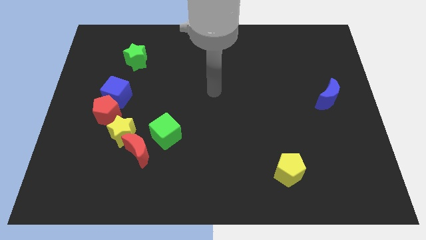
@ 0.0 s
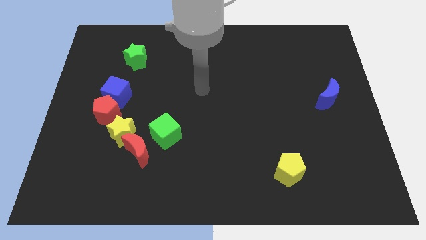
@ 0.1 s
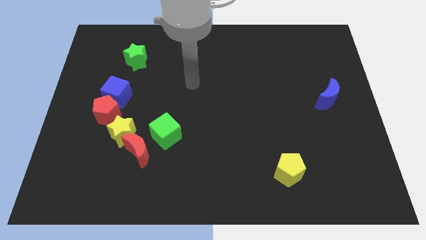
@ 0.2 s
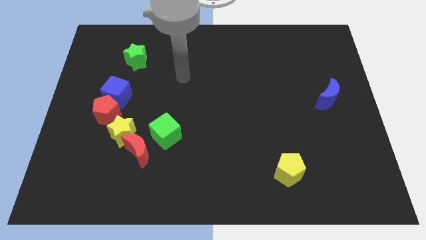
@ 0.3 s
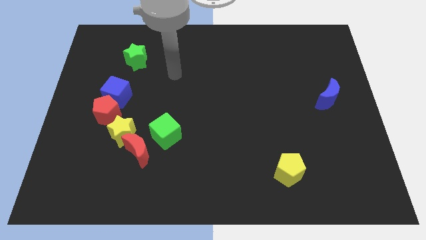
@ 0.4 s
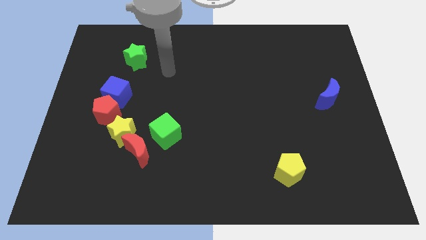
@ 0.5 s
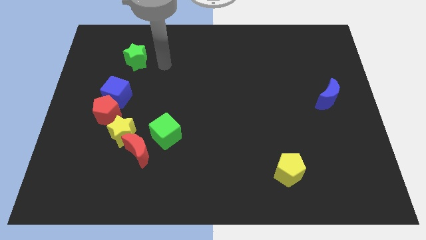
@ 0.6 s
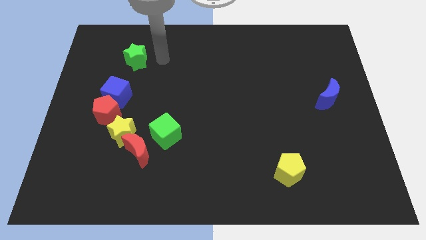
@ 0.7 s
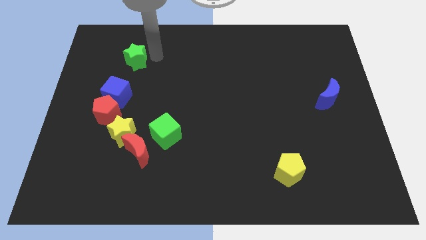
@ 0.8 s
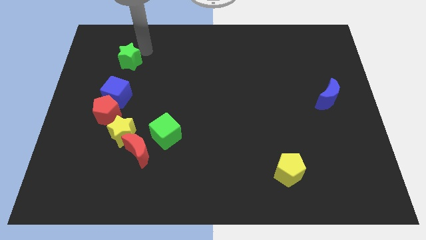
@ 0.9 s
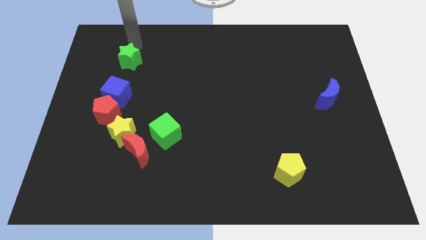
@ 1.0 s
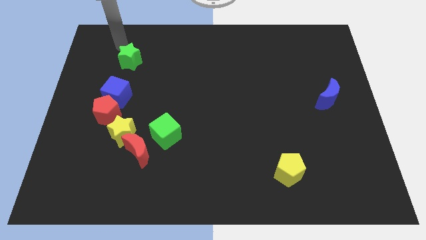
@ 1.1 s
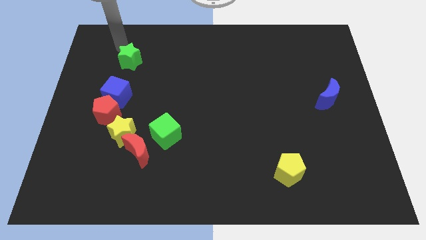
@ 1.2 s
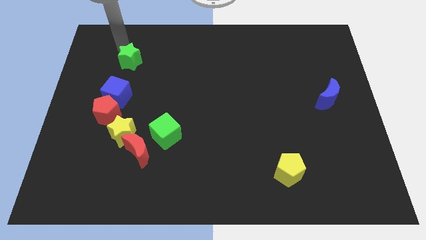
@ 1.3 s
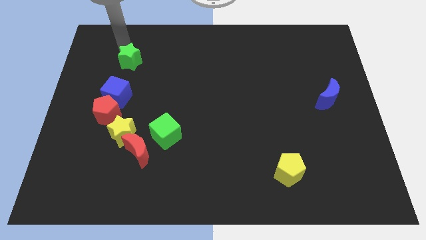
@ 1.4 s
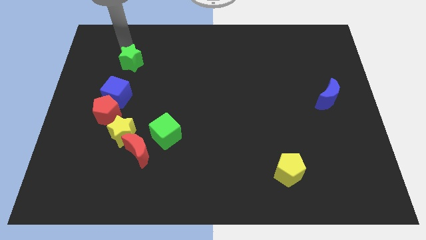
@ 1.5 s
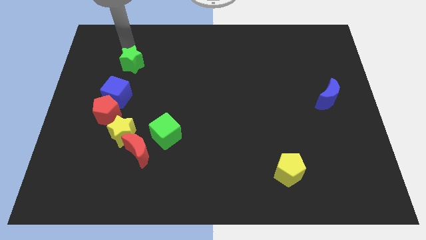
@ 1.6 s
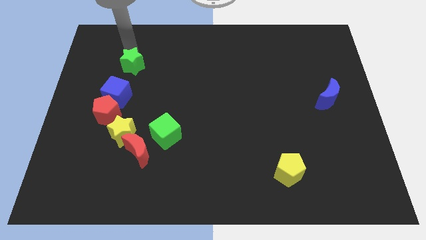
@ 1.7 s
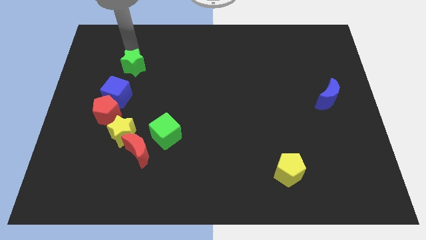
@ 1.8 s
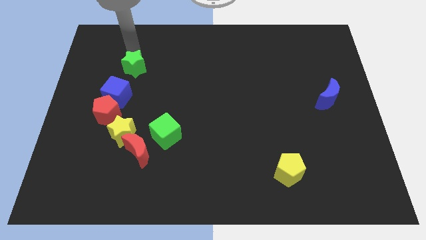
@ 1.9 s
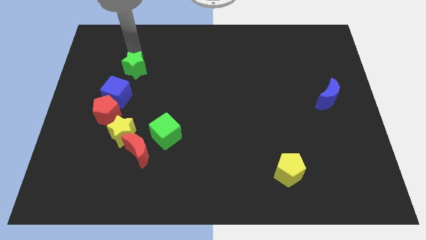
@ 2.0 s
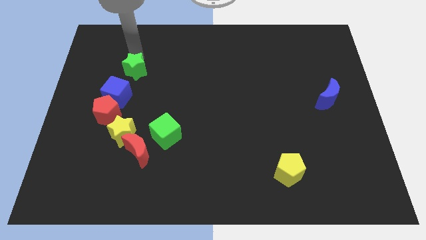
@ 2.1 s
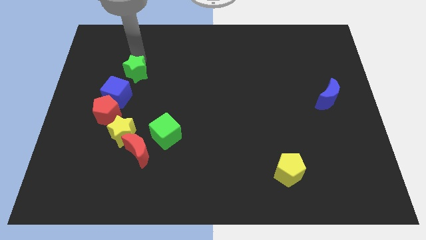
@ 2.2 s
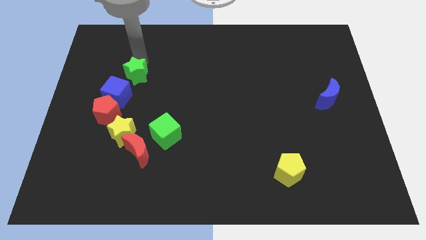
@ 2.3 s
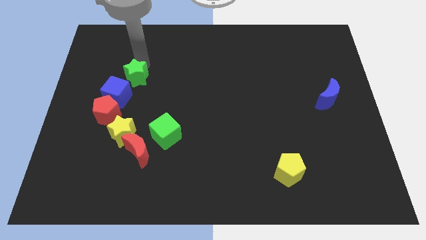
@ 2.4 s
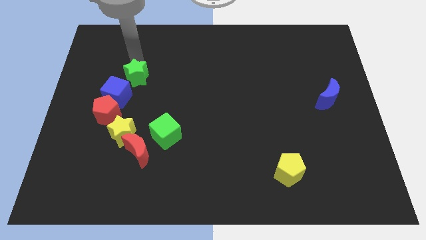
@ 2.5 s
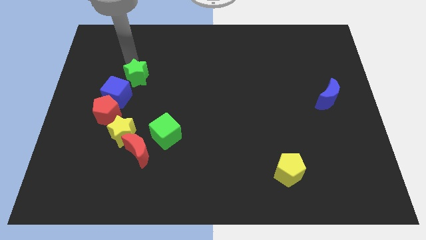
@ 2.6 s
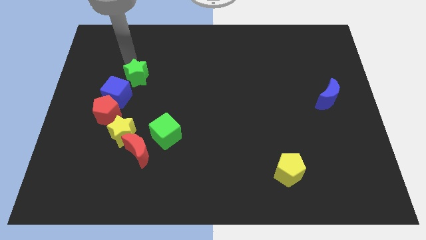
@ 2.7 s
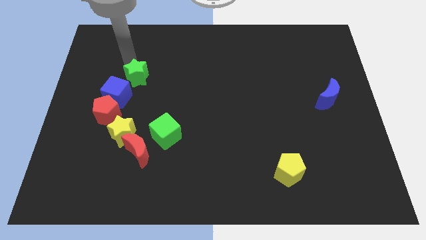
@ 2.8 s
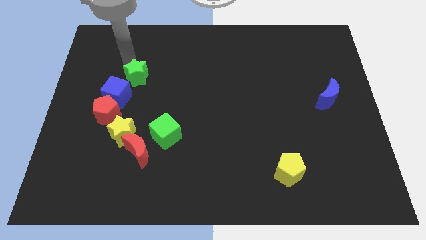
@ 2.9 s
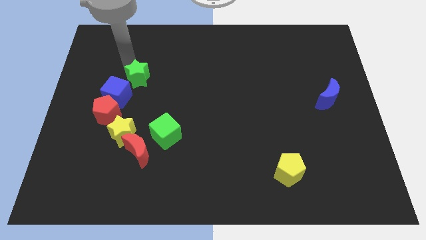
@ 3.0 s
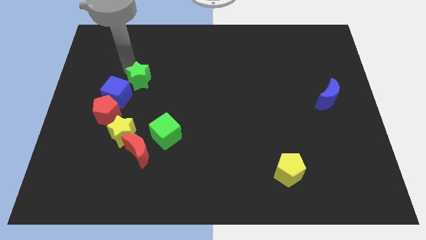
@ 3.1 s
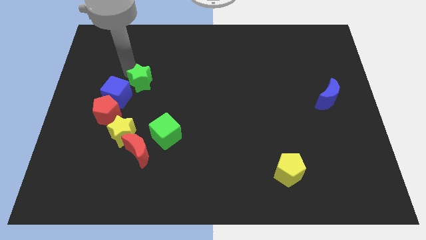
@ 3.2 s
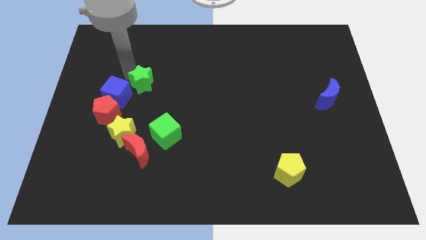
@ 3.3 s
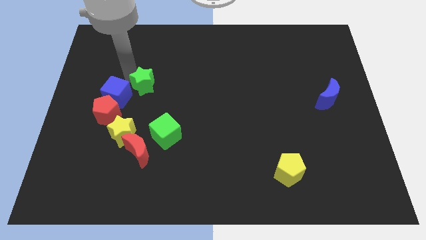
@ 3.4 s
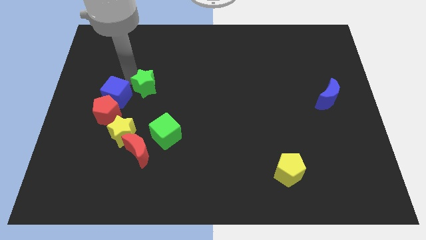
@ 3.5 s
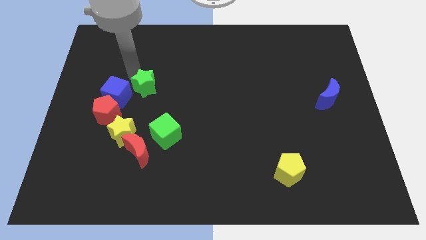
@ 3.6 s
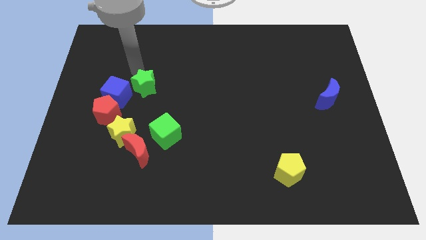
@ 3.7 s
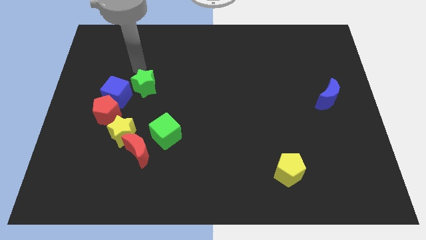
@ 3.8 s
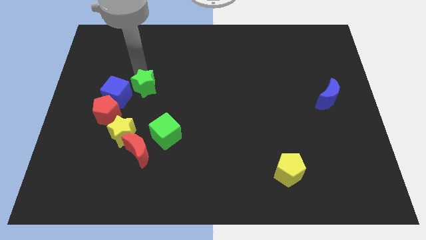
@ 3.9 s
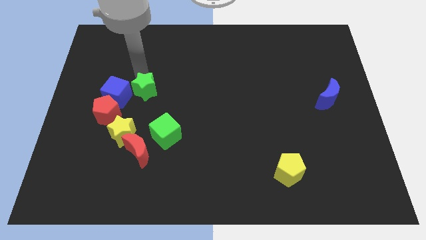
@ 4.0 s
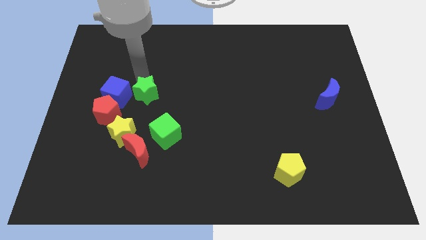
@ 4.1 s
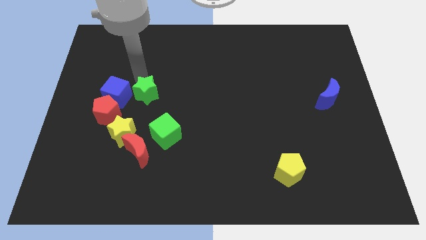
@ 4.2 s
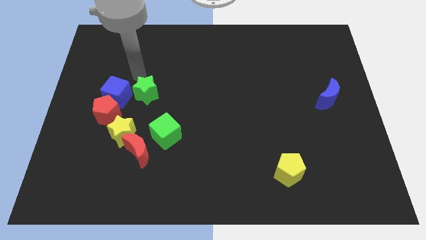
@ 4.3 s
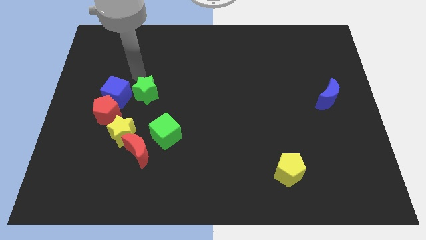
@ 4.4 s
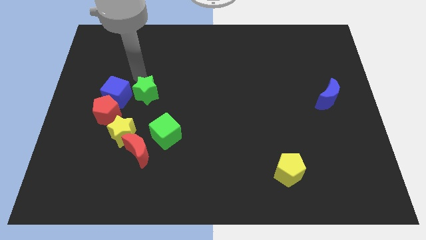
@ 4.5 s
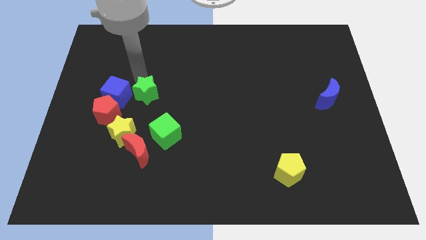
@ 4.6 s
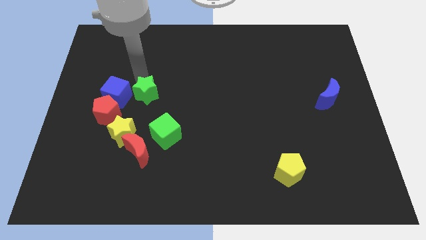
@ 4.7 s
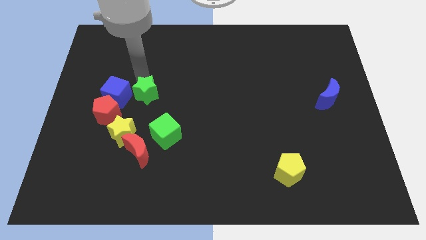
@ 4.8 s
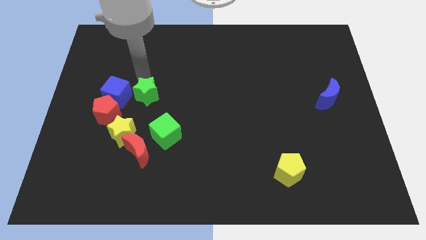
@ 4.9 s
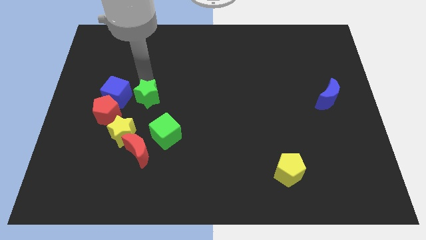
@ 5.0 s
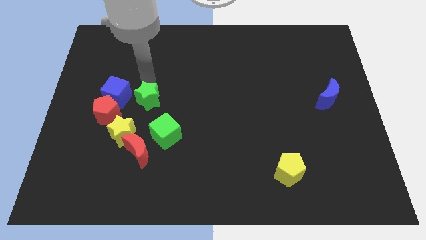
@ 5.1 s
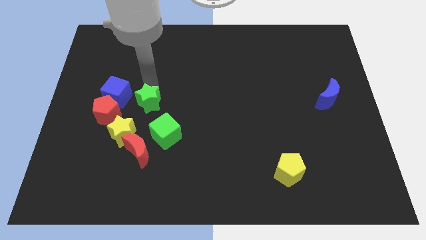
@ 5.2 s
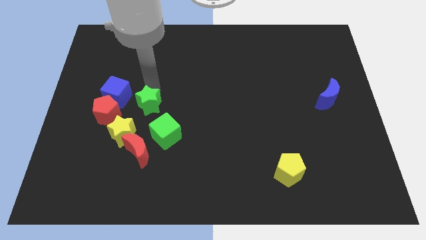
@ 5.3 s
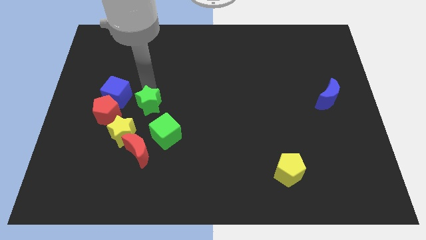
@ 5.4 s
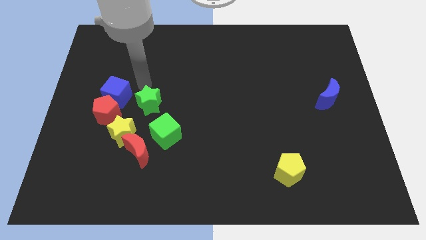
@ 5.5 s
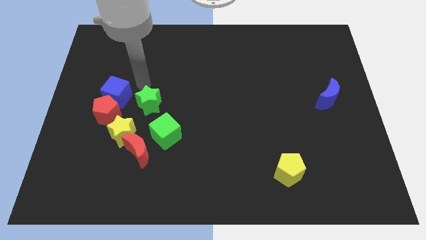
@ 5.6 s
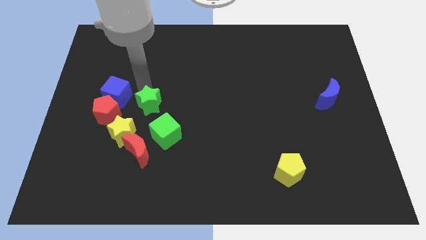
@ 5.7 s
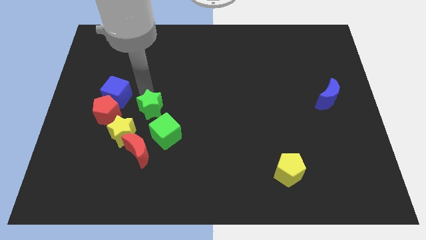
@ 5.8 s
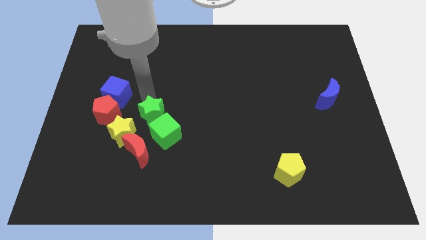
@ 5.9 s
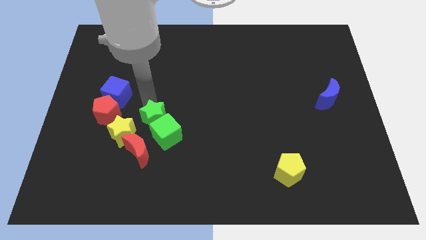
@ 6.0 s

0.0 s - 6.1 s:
push the green star towards the green cube

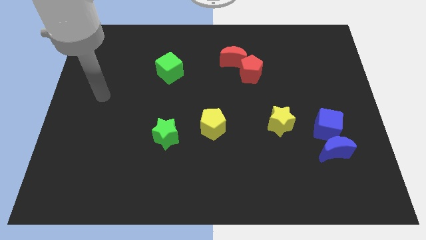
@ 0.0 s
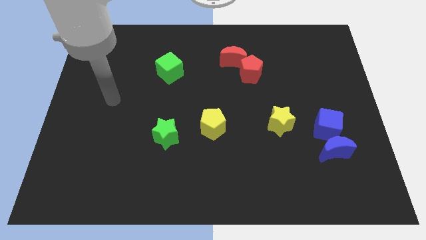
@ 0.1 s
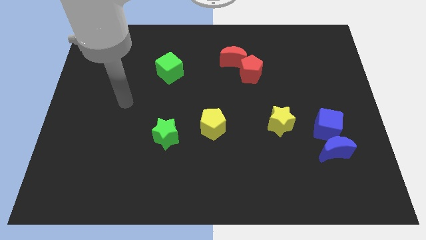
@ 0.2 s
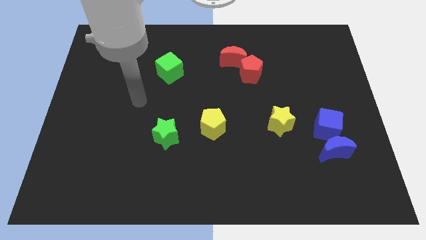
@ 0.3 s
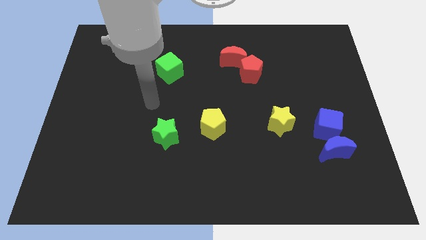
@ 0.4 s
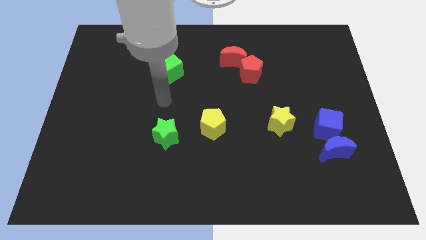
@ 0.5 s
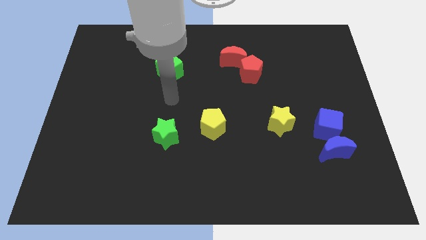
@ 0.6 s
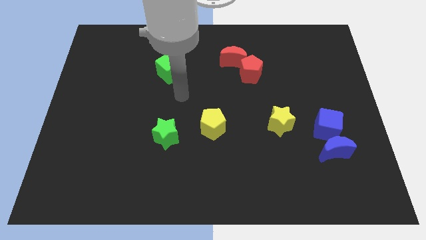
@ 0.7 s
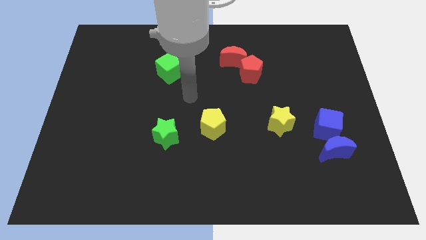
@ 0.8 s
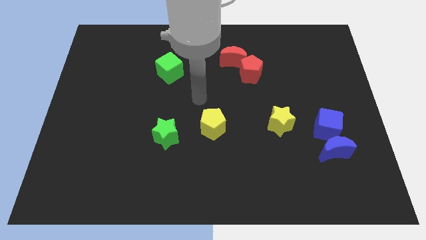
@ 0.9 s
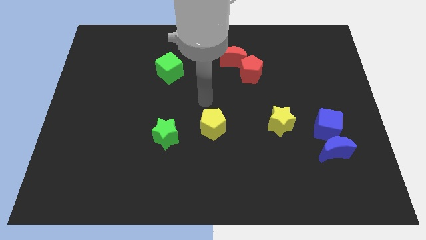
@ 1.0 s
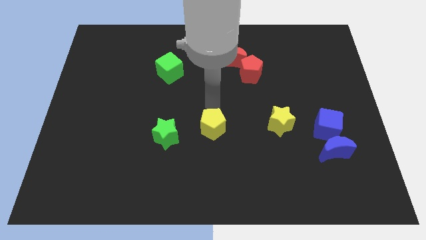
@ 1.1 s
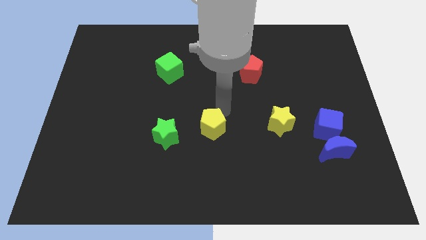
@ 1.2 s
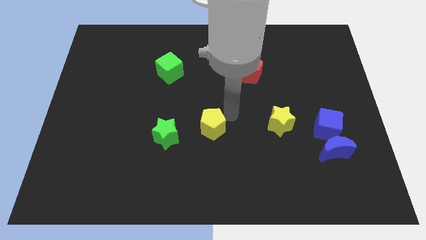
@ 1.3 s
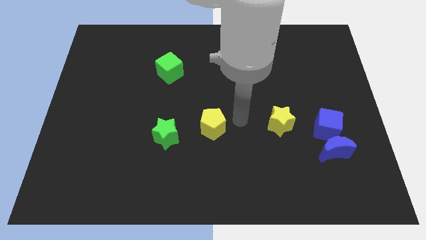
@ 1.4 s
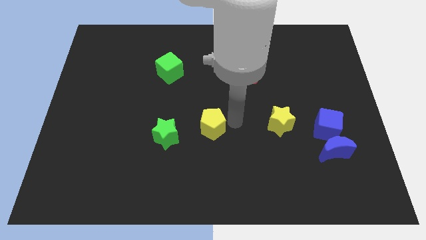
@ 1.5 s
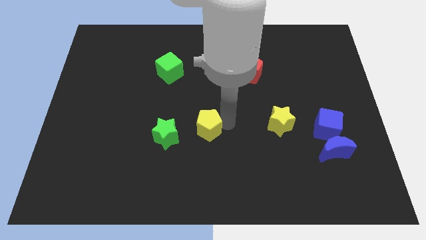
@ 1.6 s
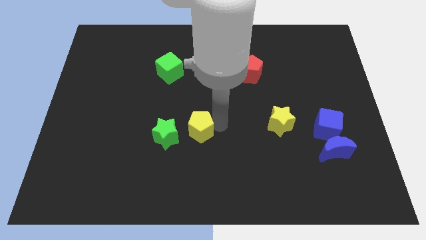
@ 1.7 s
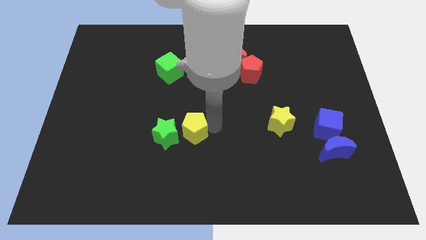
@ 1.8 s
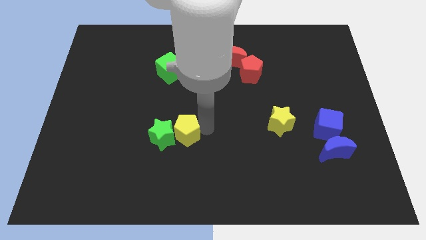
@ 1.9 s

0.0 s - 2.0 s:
slide the yellow pentagon towards the green star
